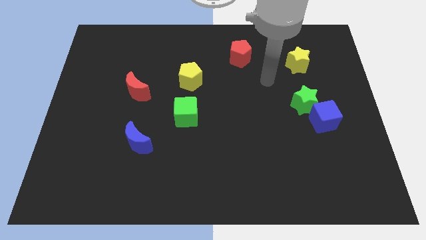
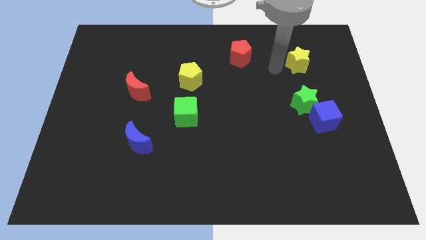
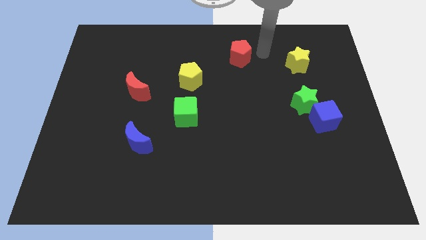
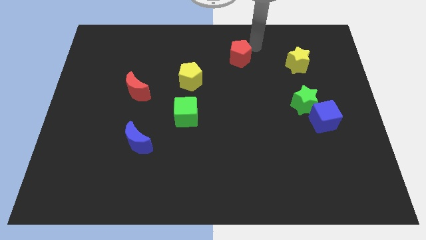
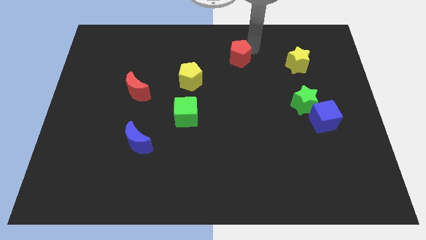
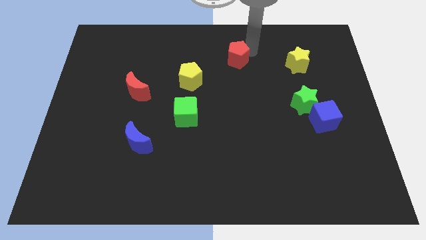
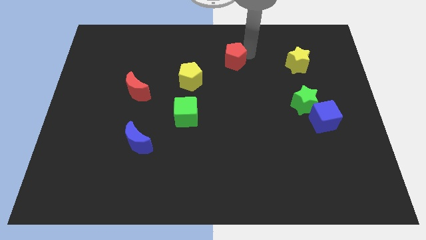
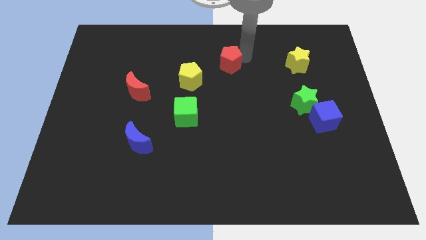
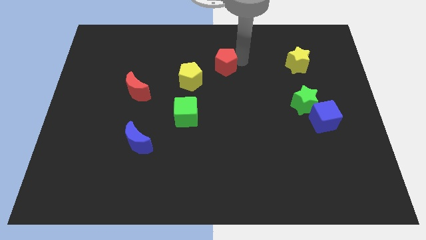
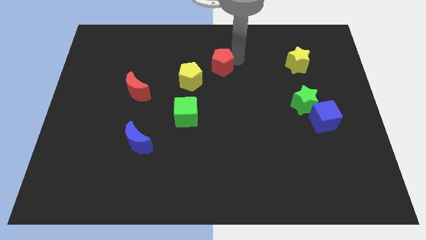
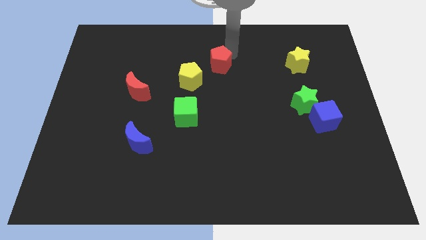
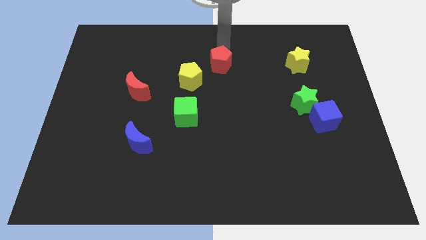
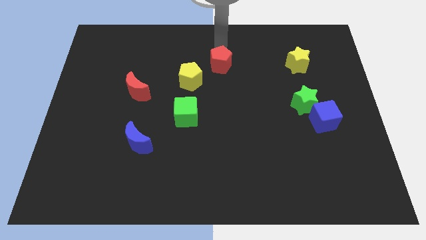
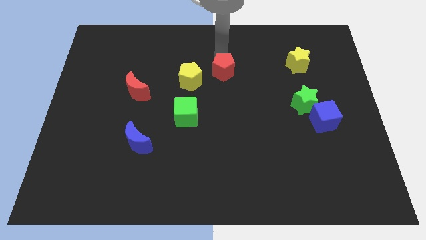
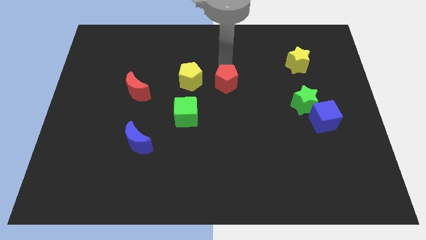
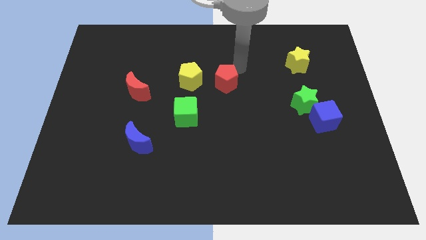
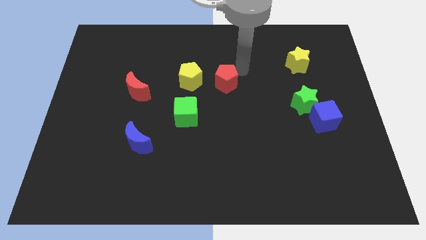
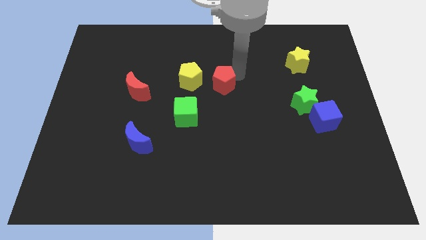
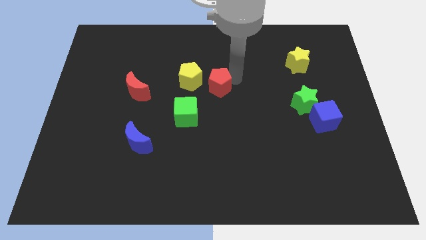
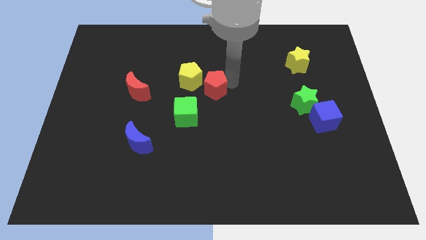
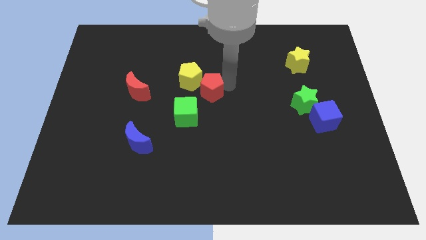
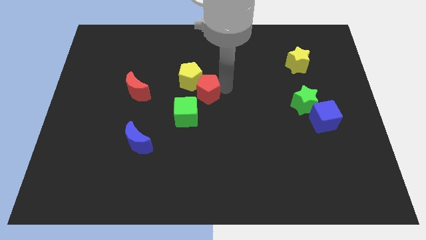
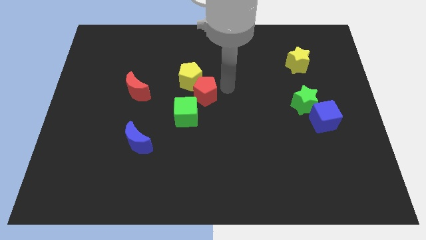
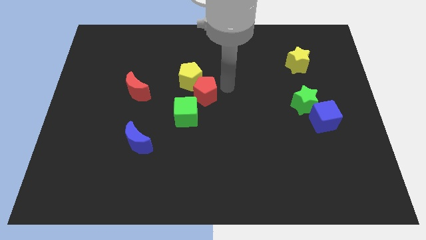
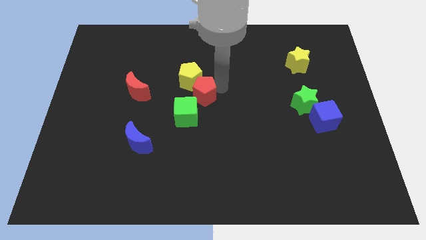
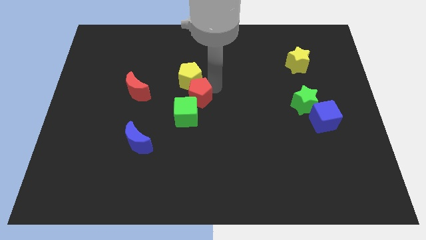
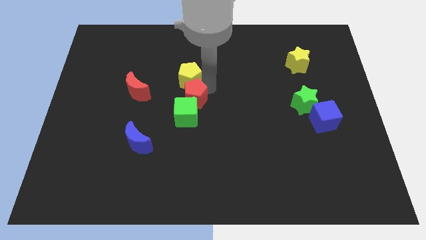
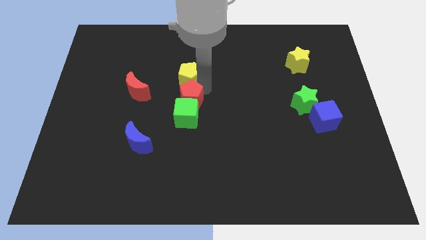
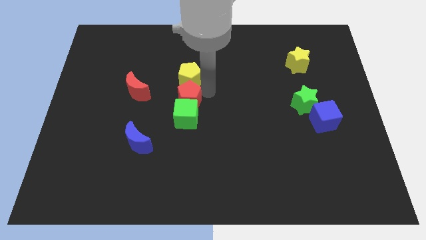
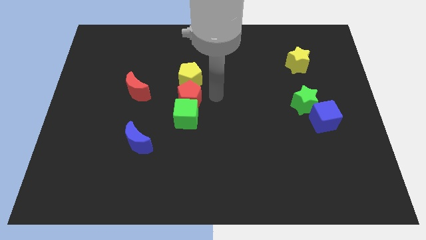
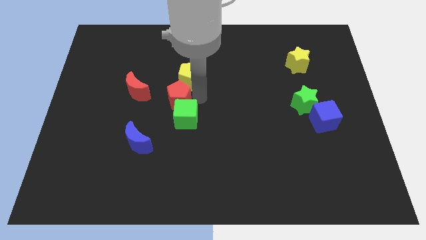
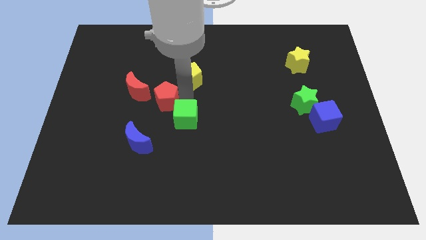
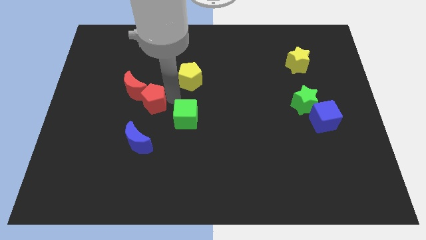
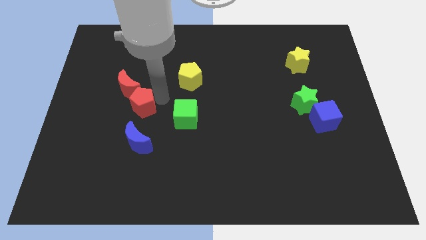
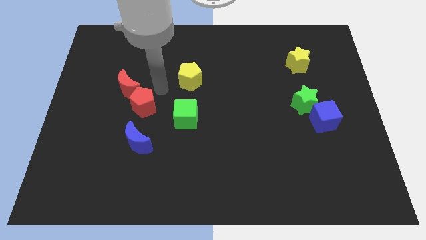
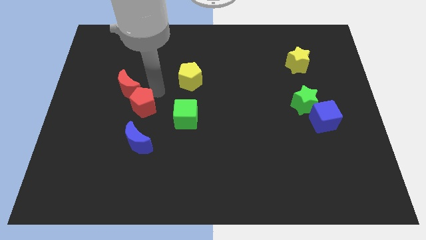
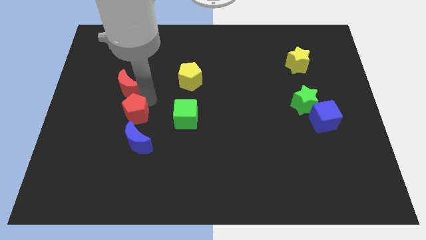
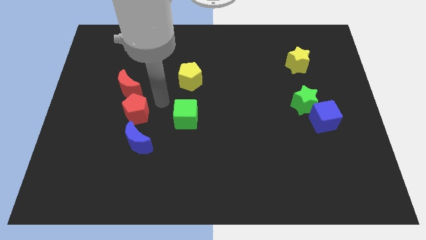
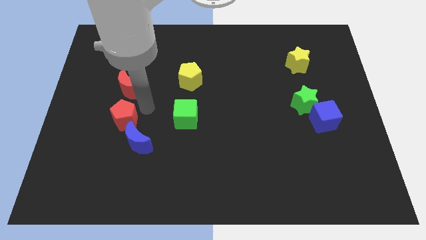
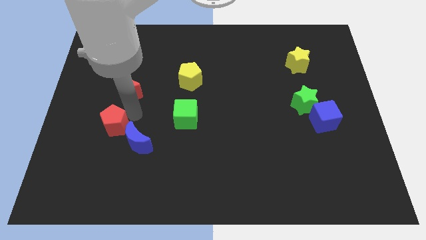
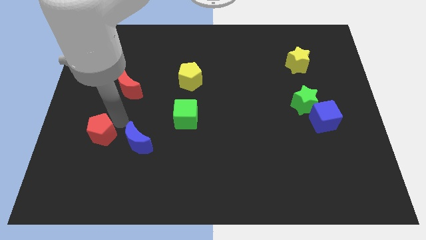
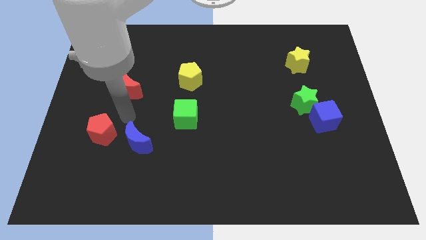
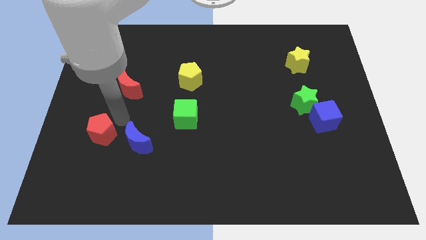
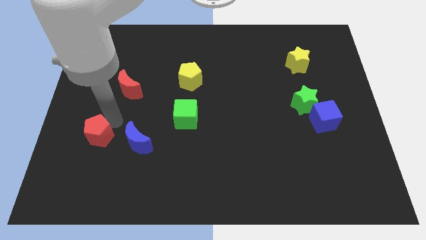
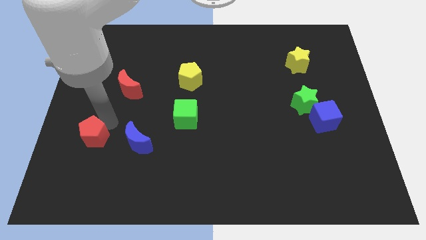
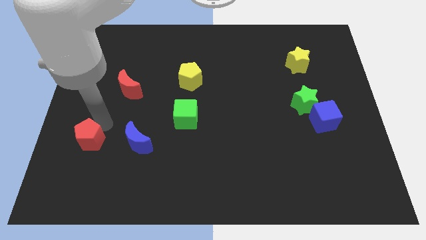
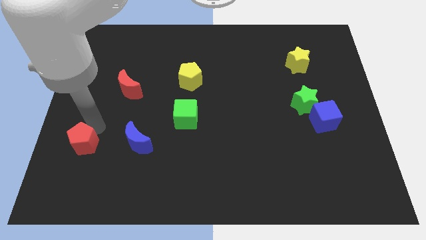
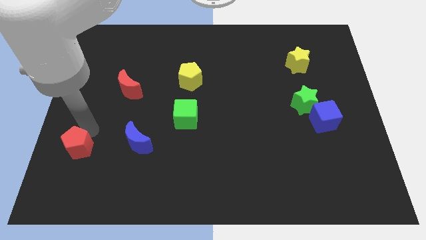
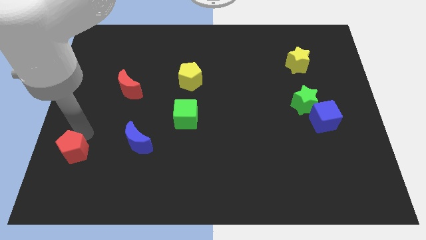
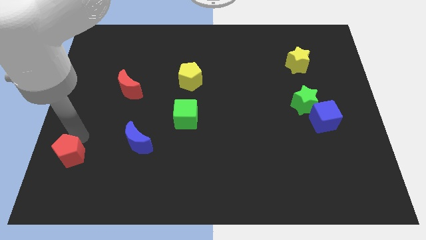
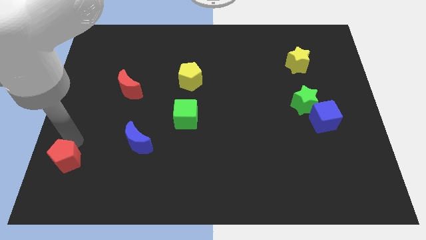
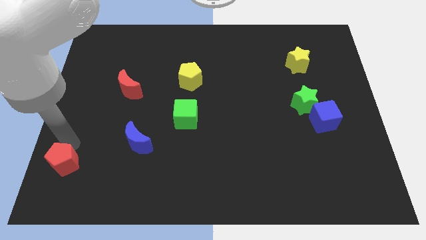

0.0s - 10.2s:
put the red pentagon to the bottom left
